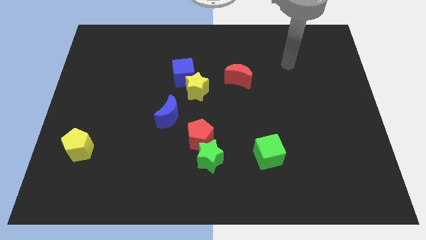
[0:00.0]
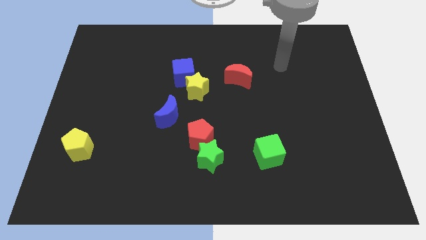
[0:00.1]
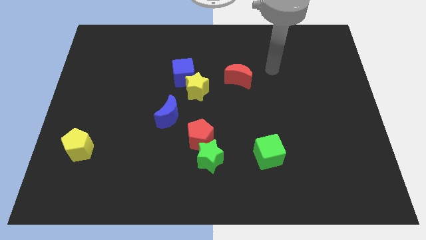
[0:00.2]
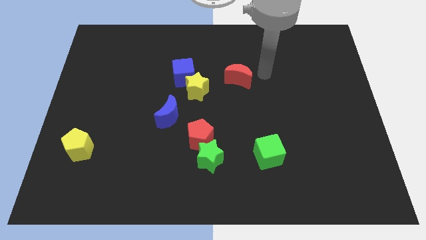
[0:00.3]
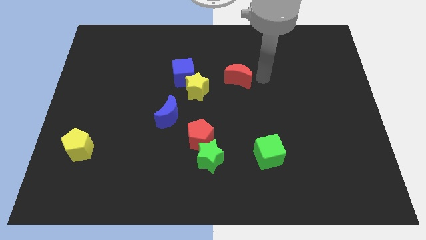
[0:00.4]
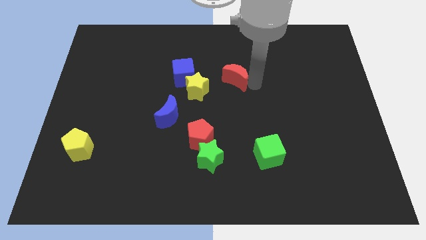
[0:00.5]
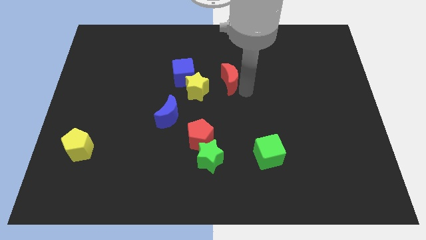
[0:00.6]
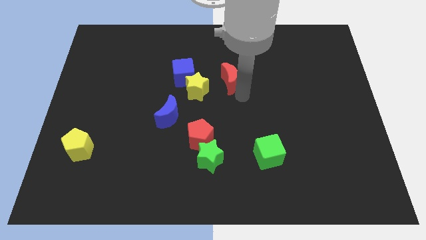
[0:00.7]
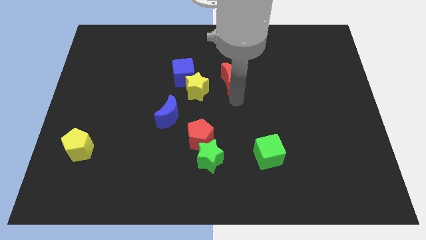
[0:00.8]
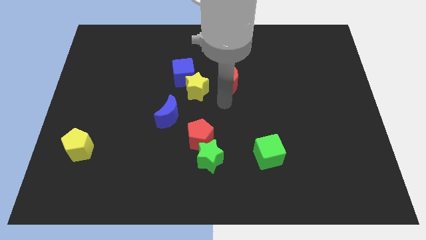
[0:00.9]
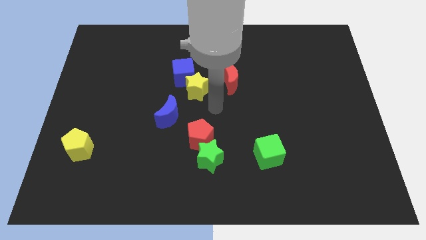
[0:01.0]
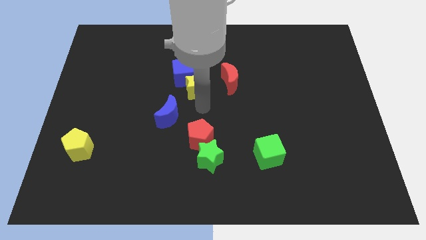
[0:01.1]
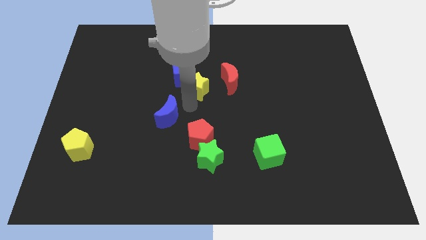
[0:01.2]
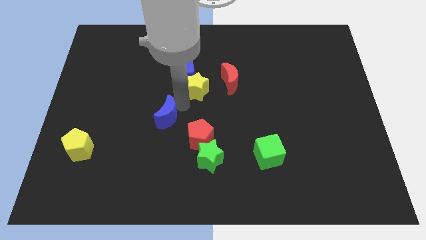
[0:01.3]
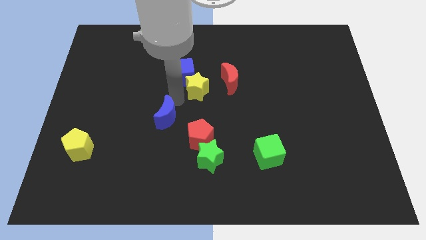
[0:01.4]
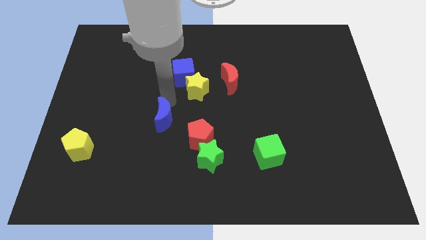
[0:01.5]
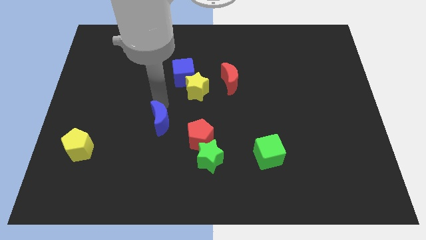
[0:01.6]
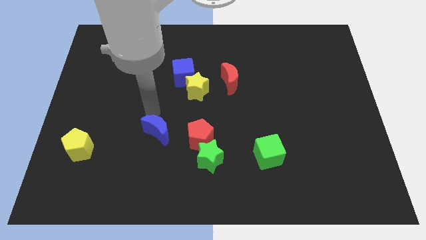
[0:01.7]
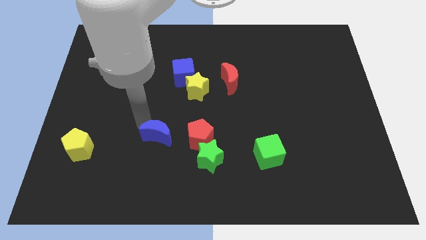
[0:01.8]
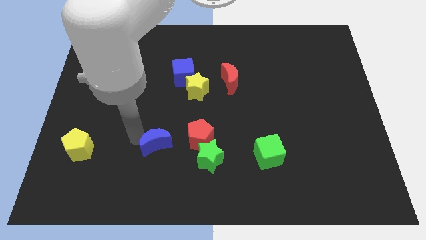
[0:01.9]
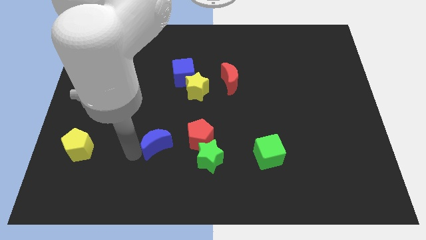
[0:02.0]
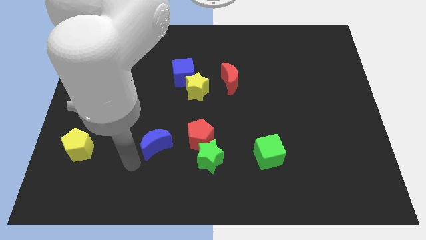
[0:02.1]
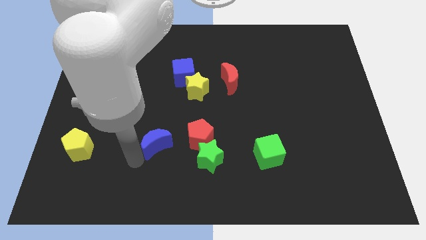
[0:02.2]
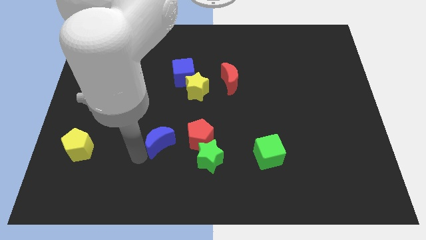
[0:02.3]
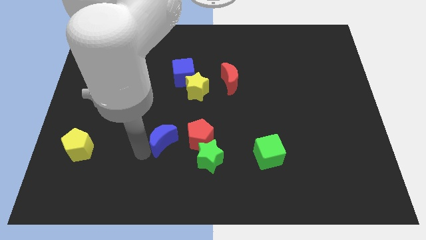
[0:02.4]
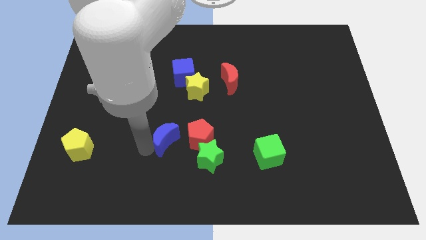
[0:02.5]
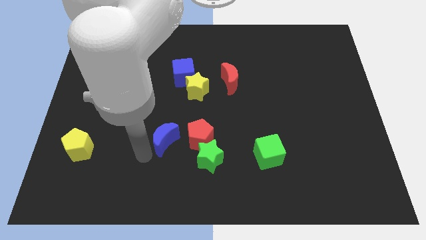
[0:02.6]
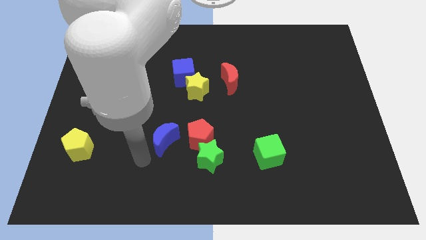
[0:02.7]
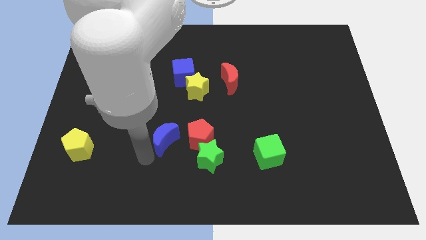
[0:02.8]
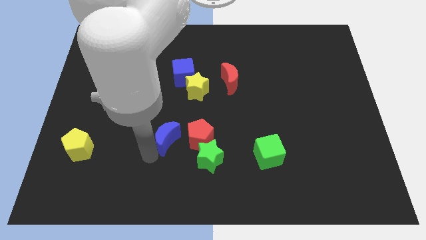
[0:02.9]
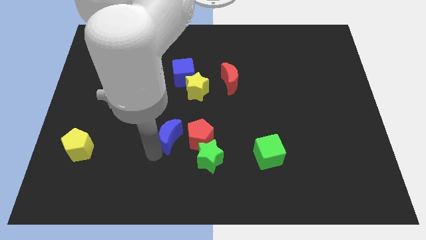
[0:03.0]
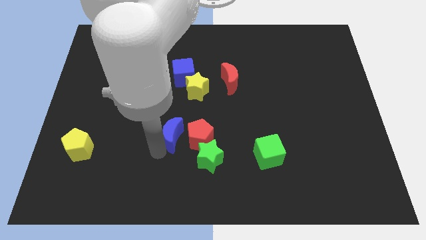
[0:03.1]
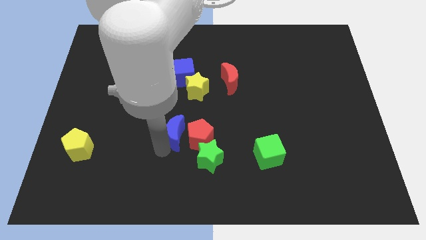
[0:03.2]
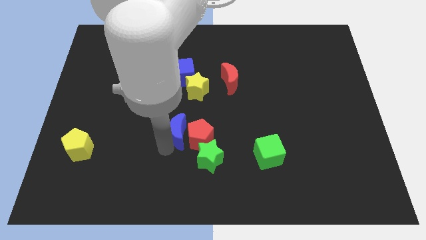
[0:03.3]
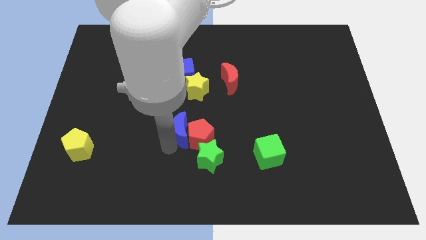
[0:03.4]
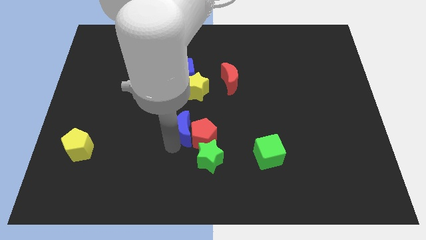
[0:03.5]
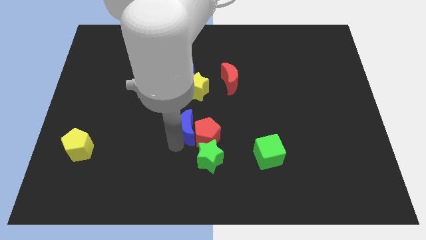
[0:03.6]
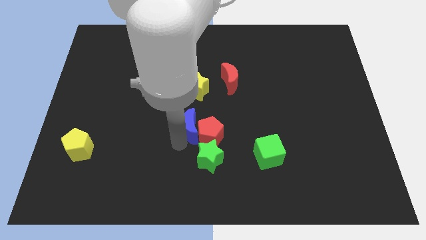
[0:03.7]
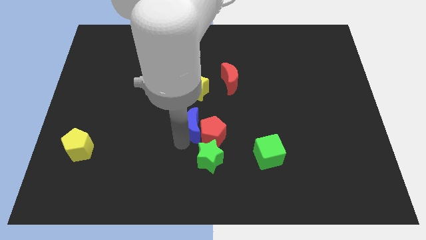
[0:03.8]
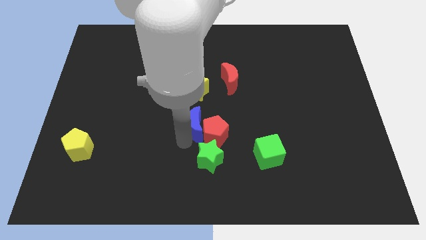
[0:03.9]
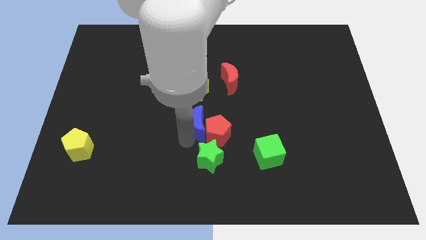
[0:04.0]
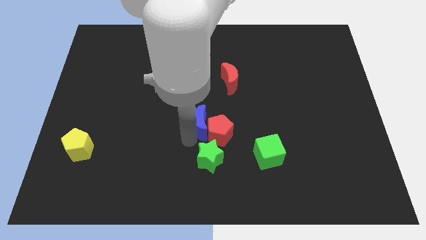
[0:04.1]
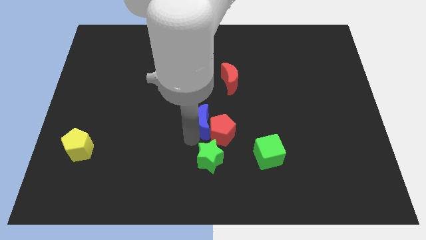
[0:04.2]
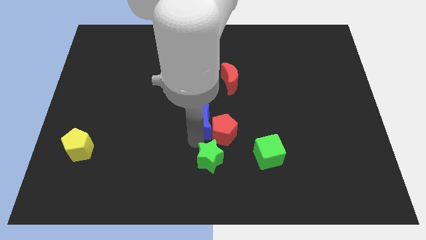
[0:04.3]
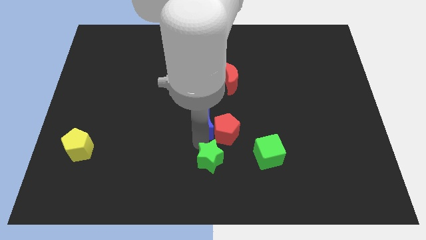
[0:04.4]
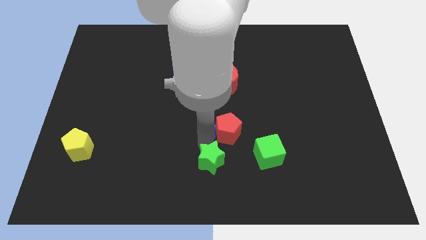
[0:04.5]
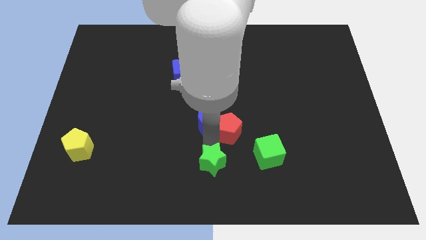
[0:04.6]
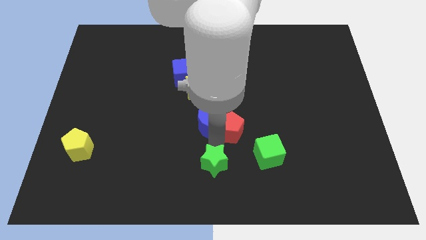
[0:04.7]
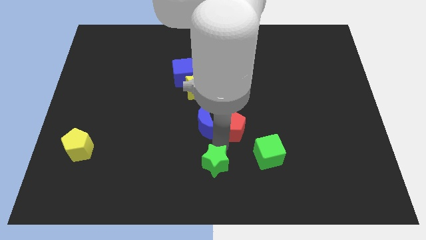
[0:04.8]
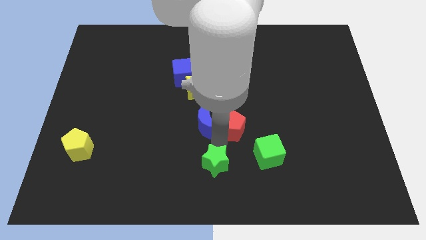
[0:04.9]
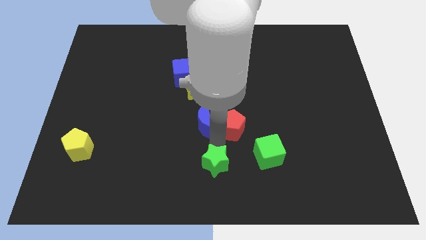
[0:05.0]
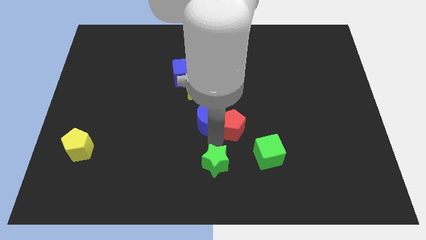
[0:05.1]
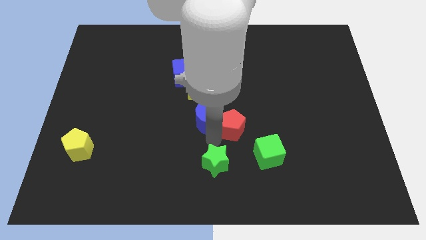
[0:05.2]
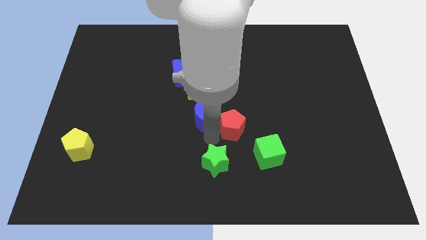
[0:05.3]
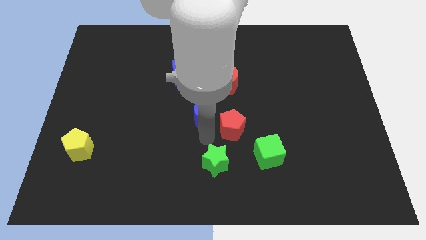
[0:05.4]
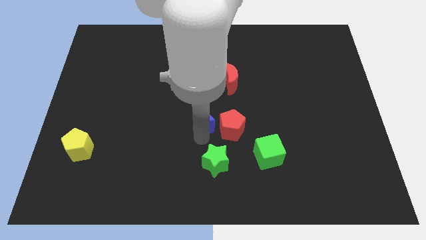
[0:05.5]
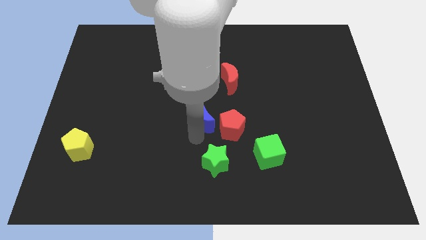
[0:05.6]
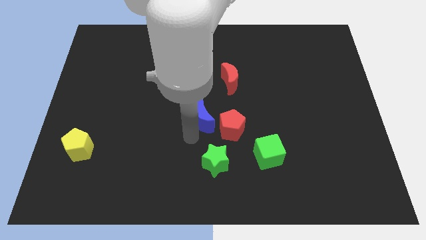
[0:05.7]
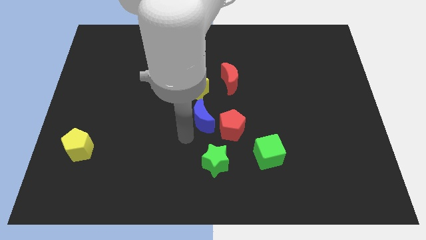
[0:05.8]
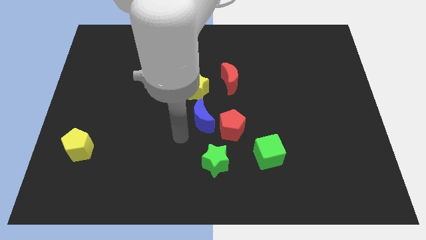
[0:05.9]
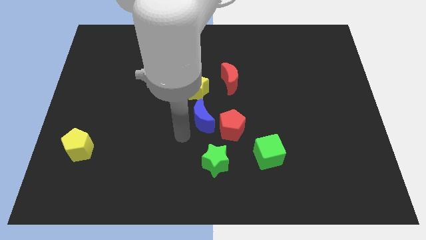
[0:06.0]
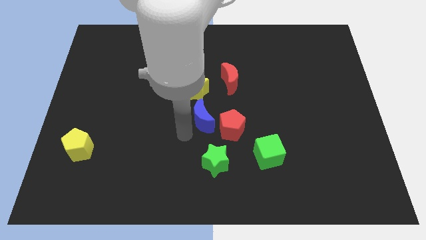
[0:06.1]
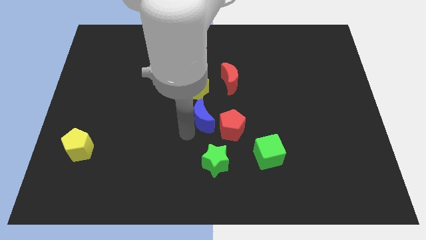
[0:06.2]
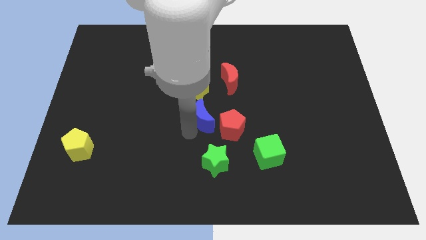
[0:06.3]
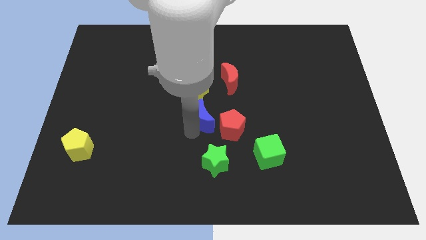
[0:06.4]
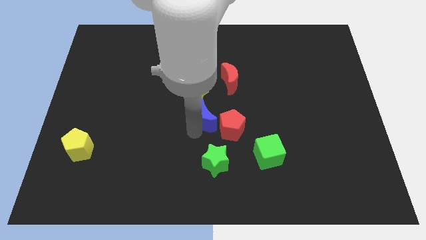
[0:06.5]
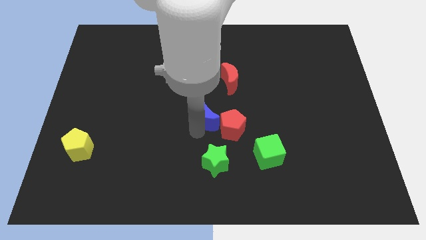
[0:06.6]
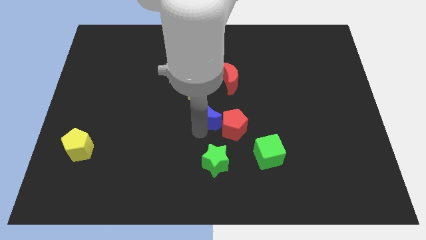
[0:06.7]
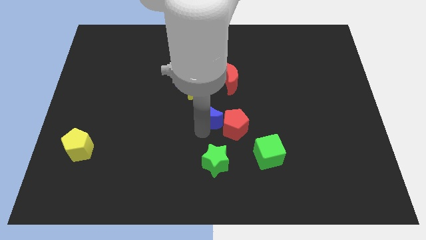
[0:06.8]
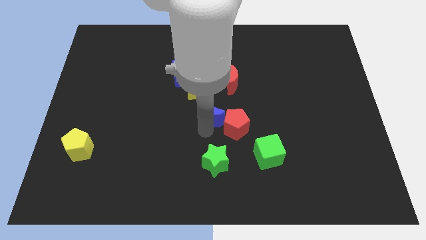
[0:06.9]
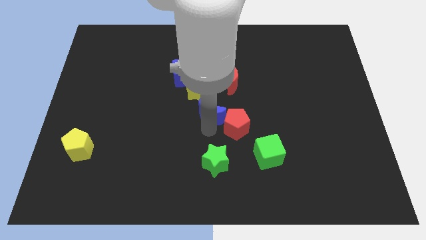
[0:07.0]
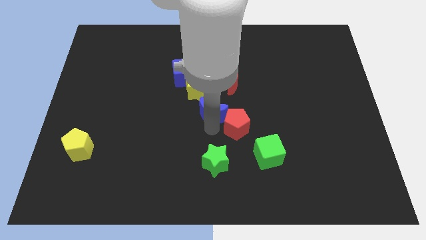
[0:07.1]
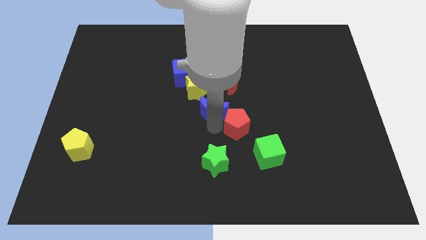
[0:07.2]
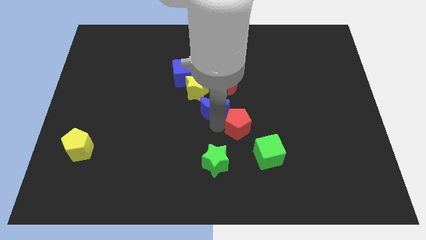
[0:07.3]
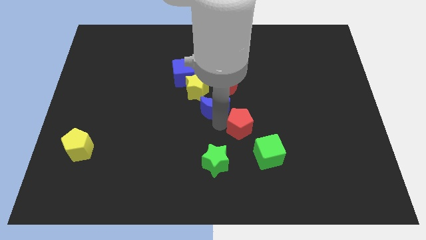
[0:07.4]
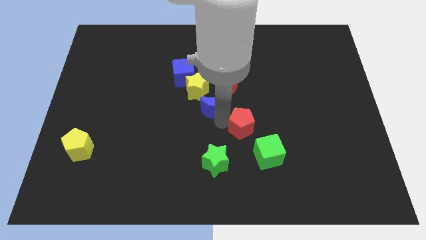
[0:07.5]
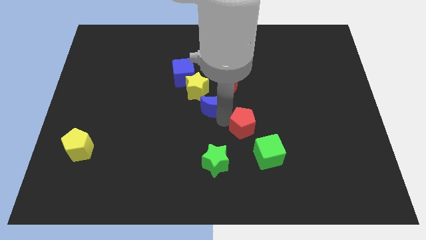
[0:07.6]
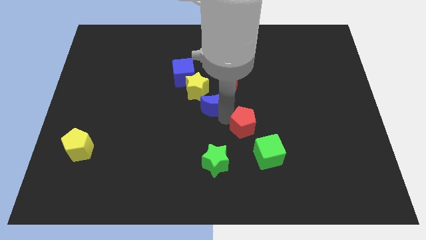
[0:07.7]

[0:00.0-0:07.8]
put the blue moon to the bottom right of the blue cube
